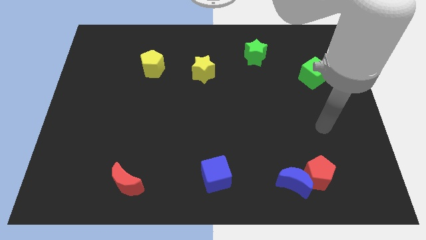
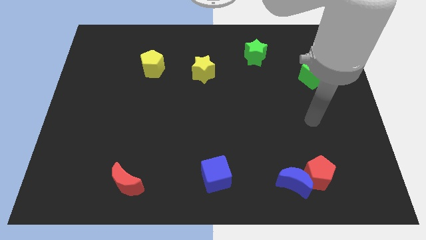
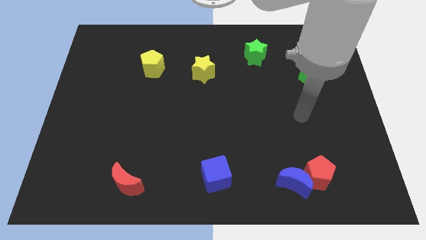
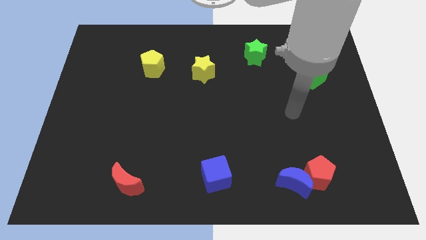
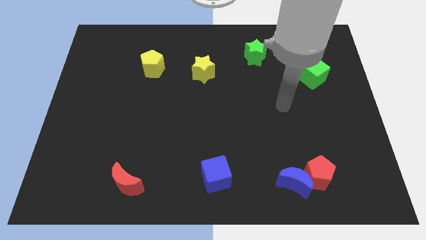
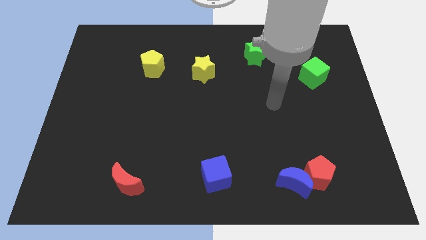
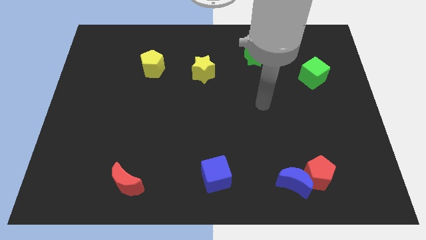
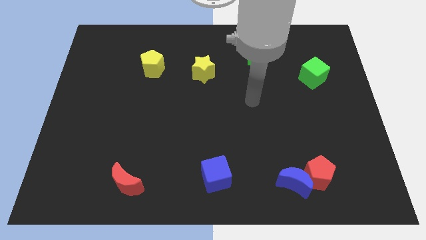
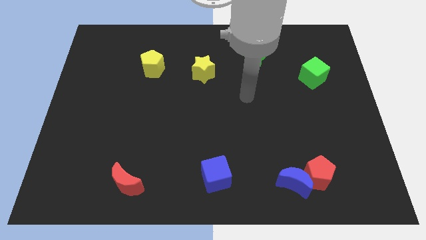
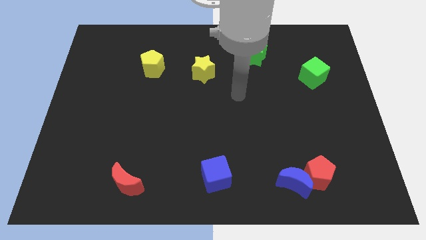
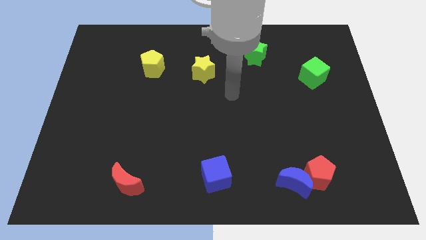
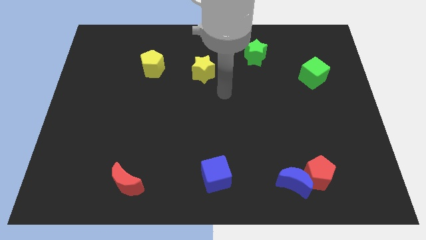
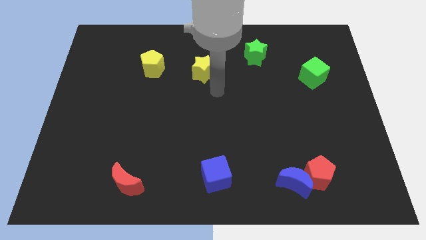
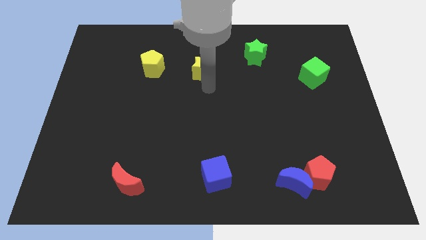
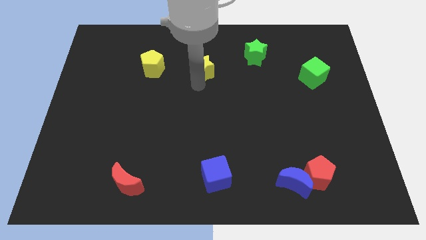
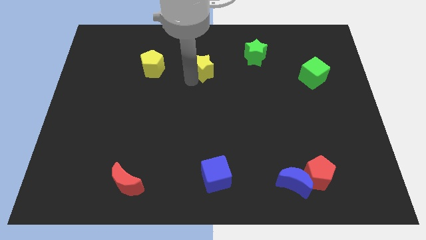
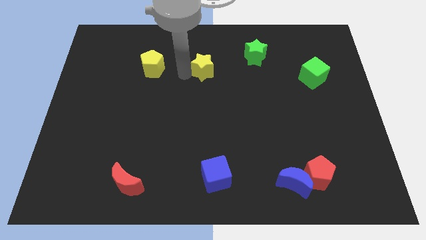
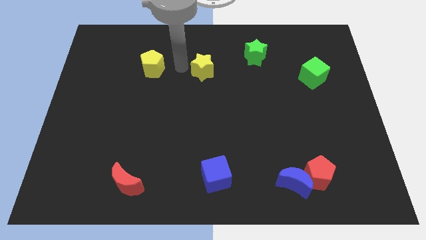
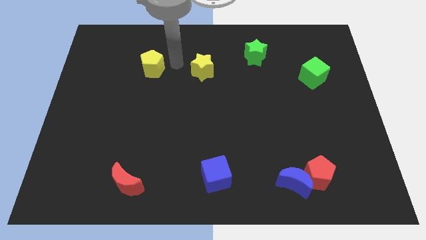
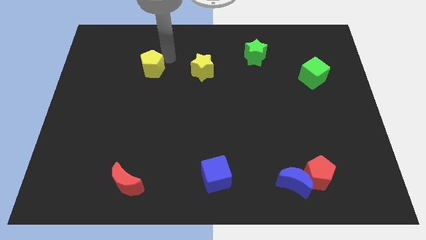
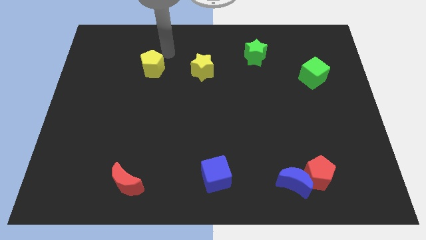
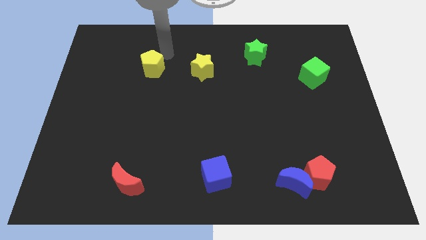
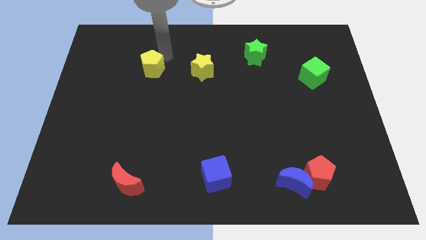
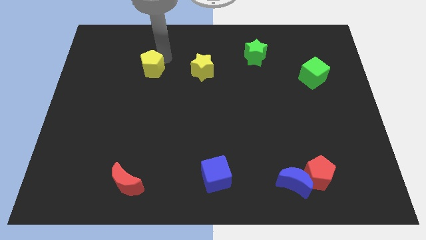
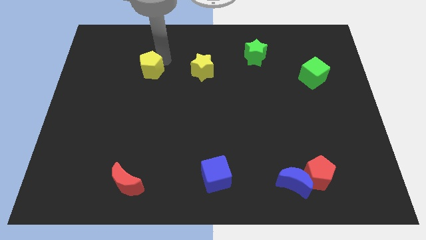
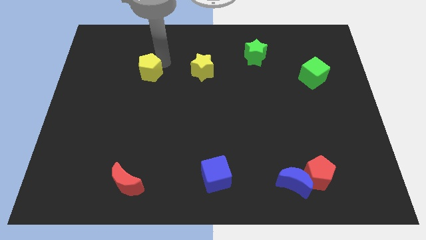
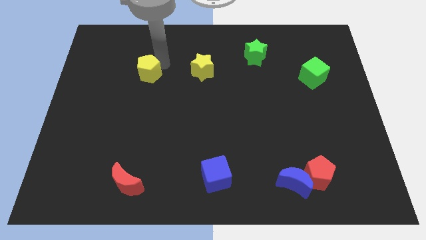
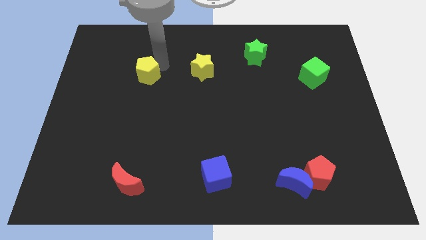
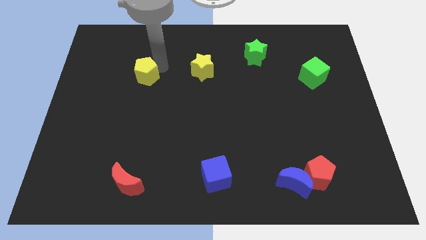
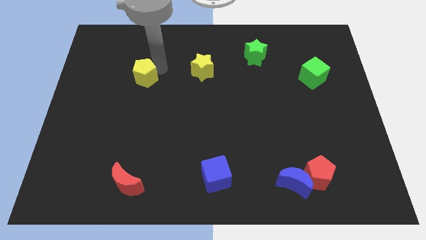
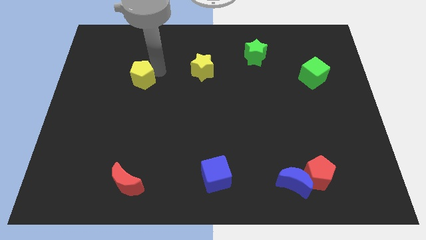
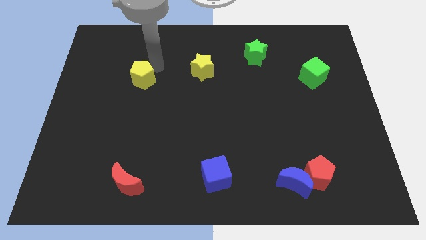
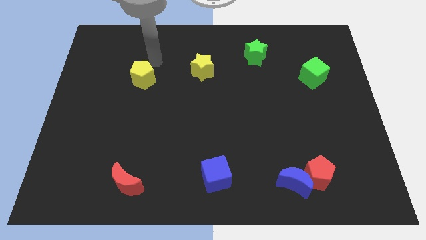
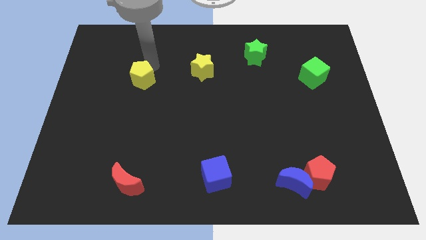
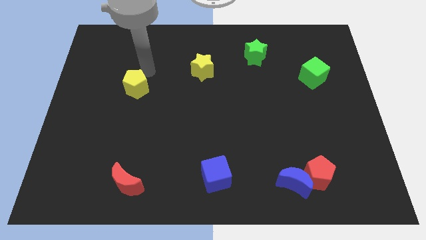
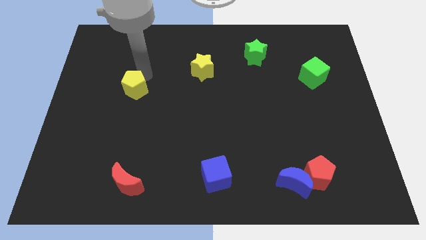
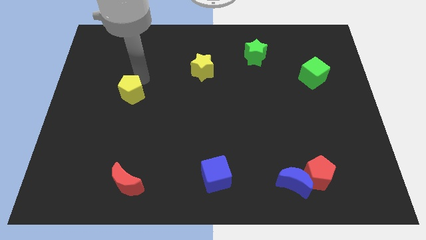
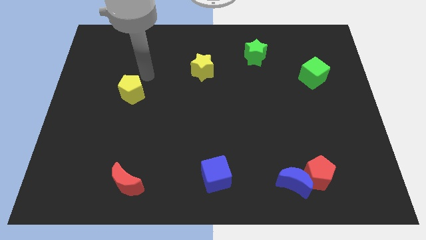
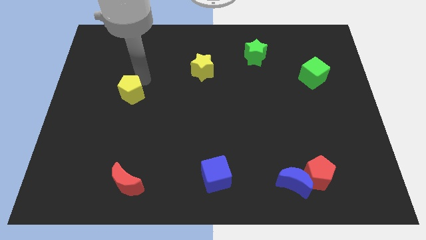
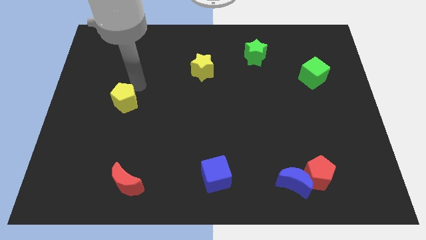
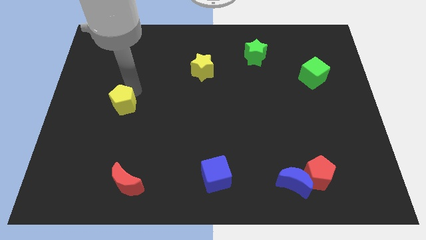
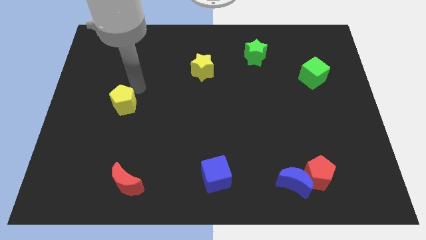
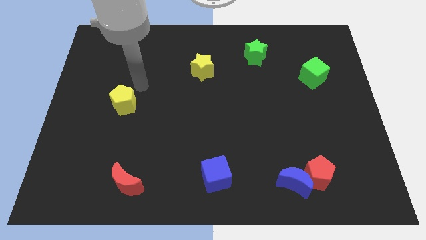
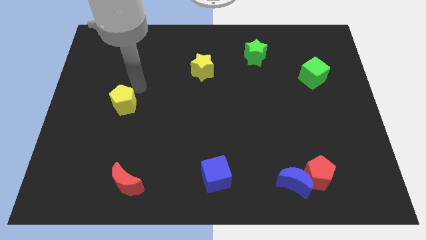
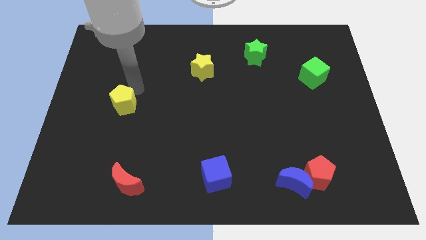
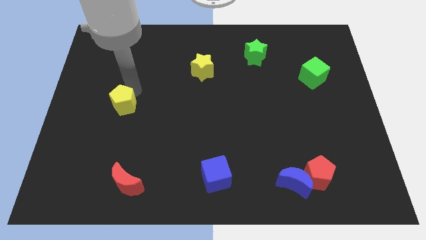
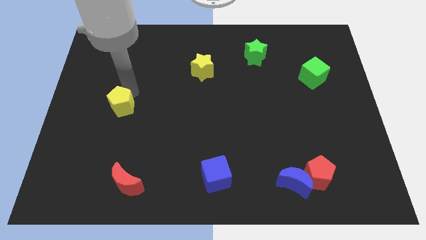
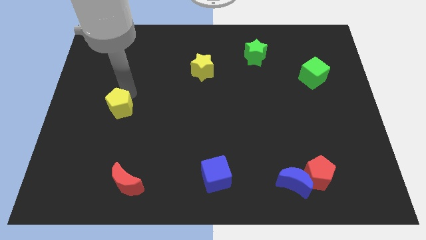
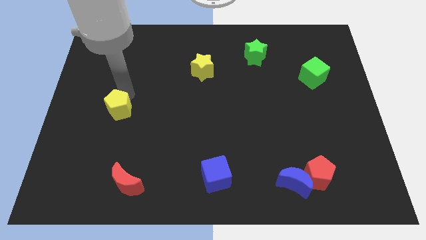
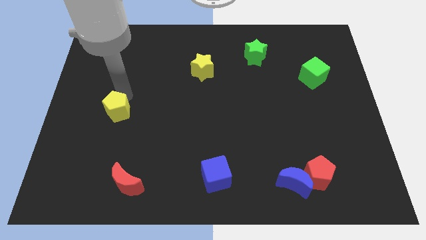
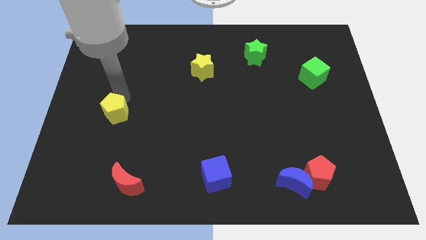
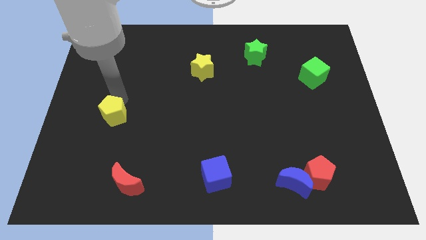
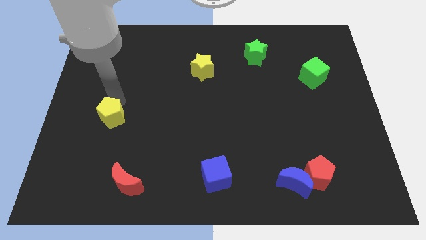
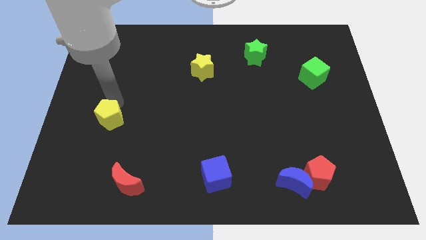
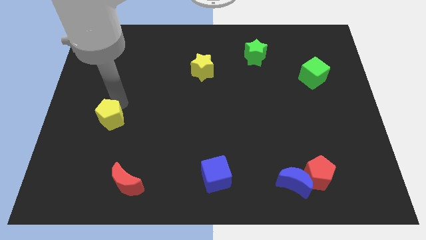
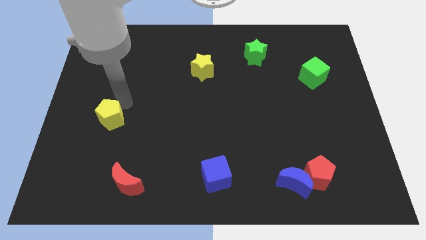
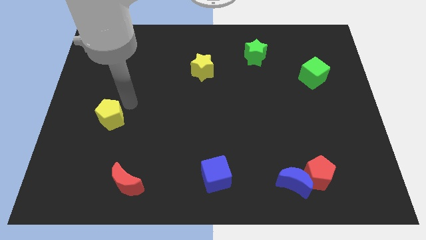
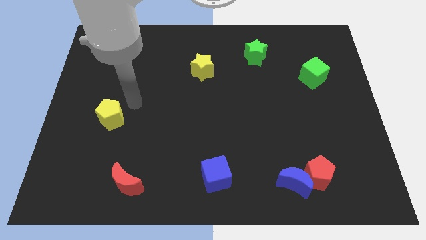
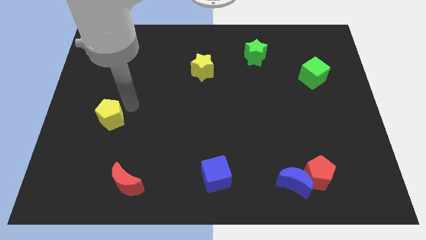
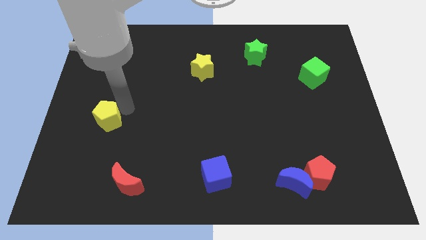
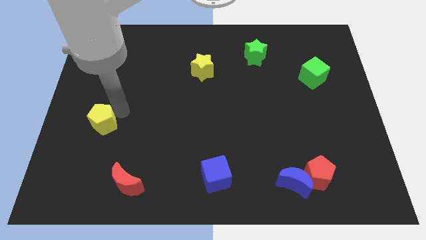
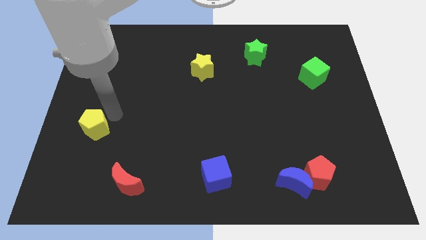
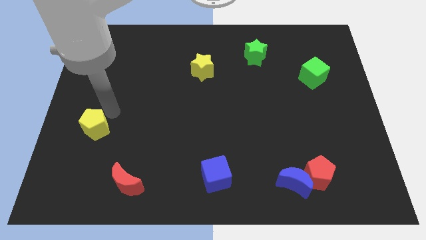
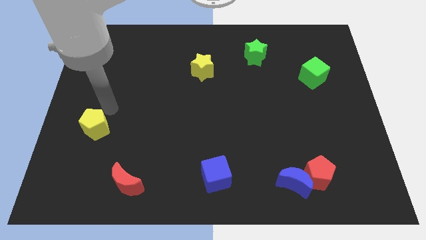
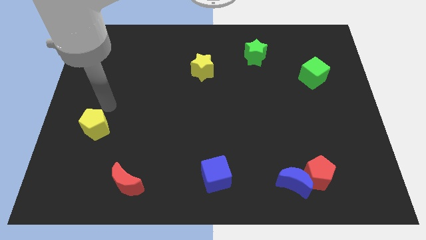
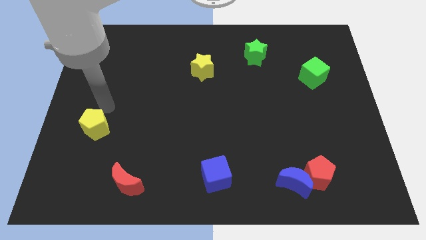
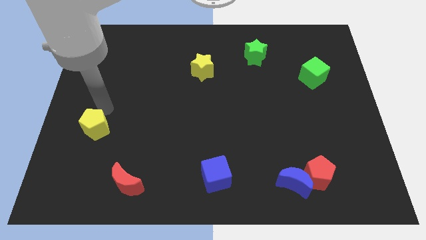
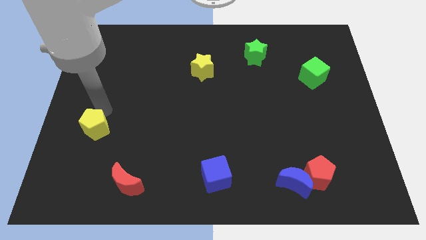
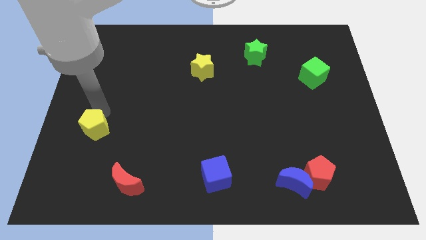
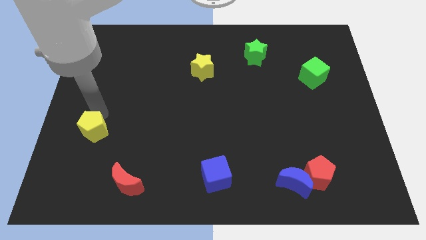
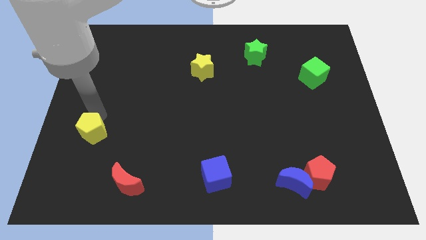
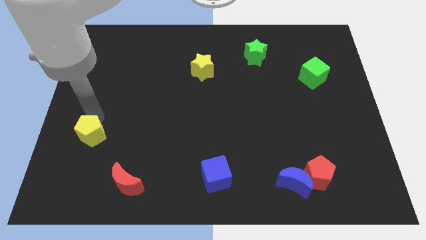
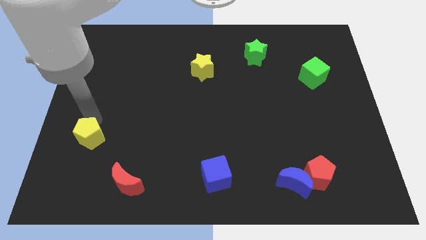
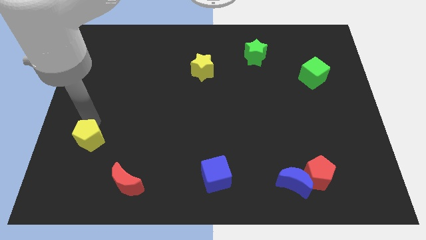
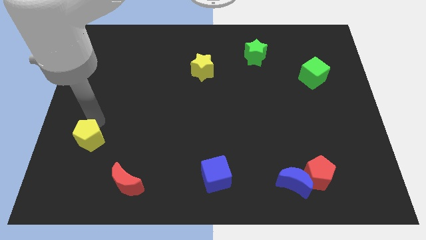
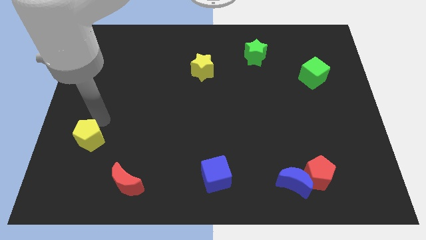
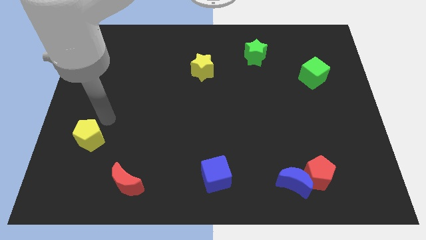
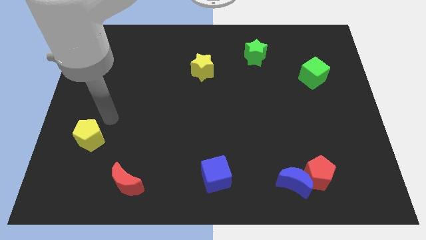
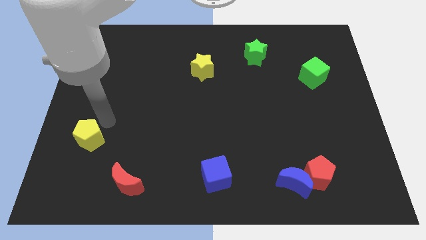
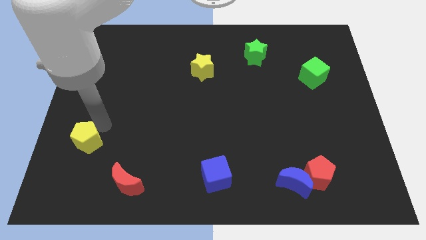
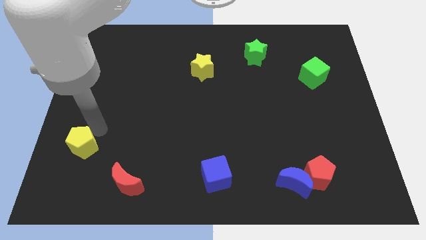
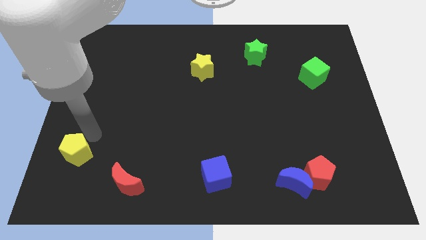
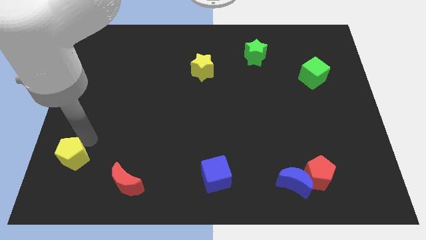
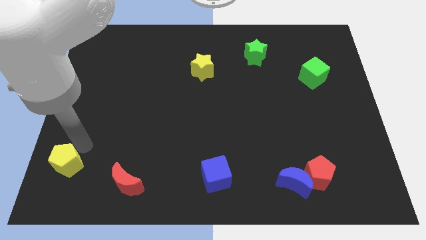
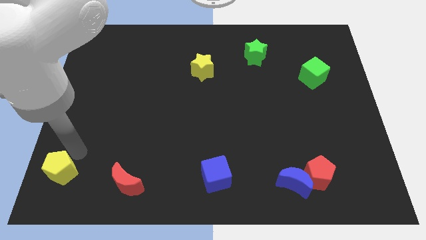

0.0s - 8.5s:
slide the yellow pentagon to the bottom left corner
